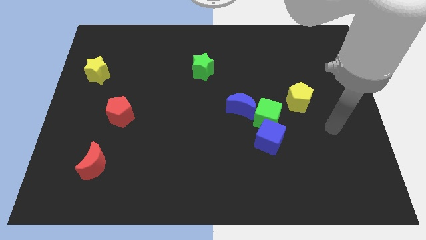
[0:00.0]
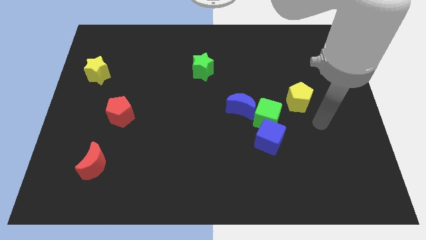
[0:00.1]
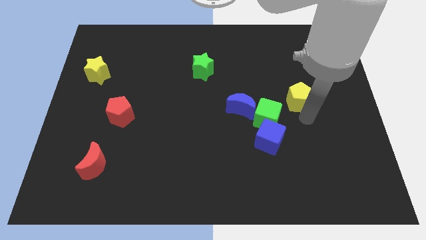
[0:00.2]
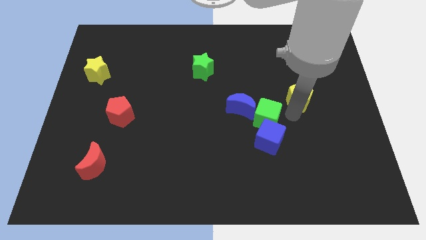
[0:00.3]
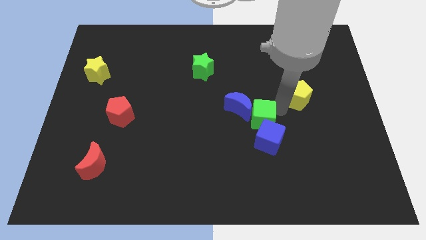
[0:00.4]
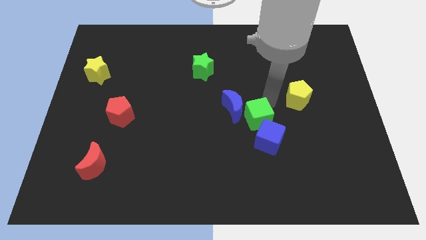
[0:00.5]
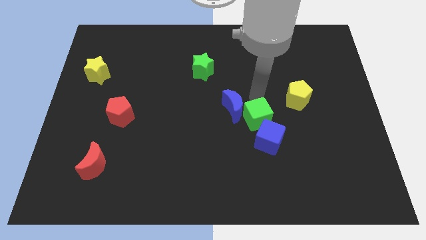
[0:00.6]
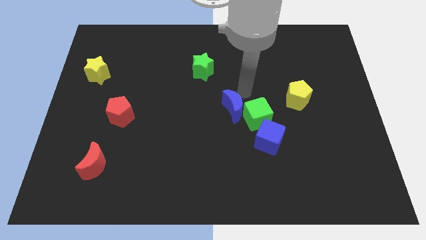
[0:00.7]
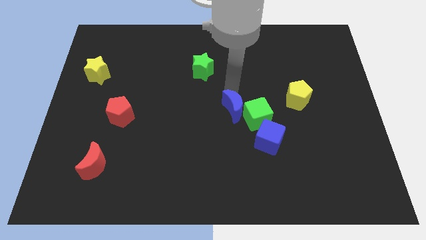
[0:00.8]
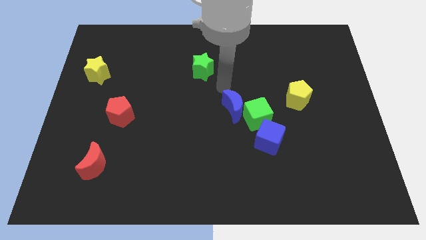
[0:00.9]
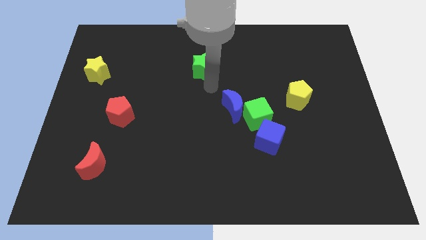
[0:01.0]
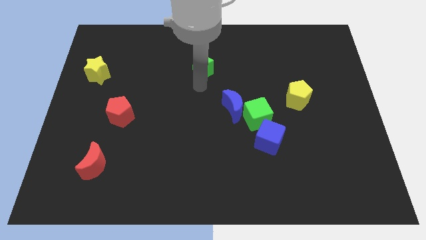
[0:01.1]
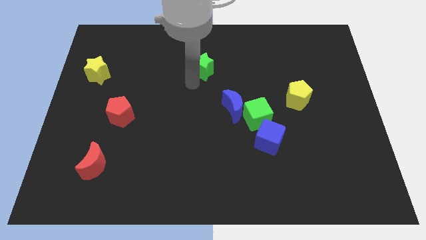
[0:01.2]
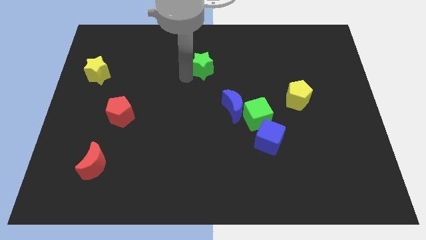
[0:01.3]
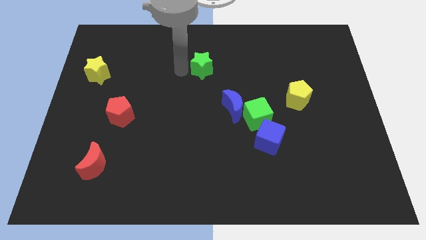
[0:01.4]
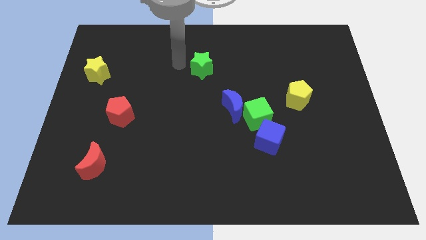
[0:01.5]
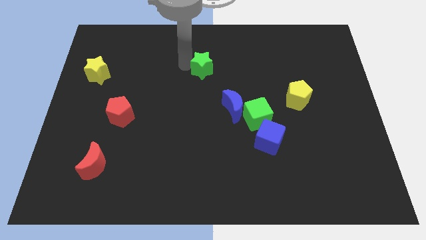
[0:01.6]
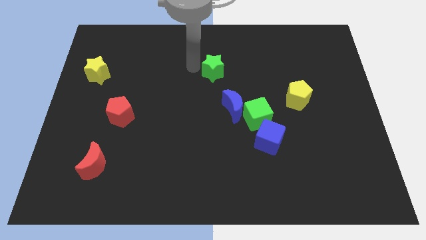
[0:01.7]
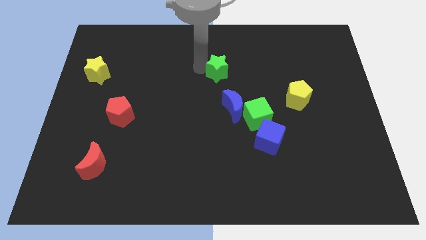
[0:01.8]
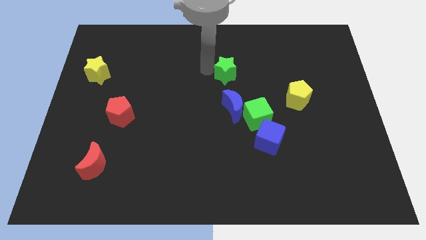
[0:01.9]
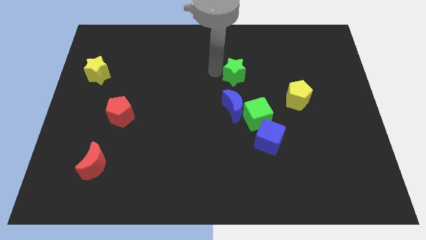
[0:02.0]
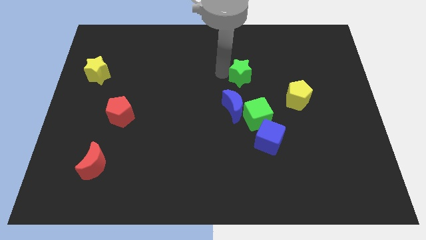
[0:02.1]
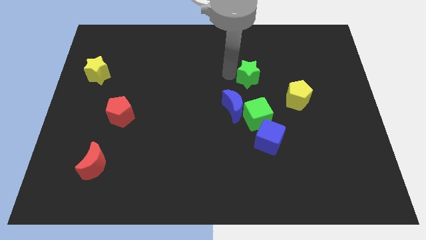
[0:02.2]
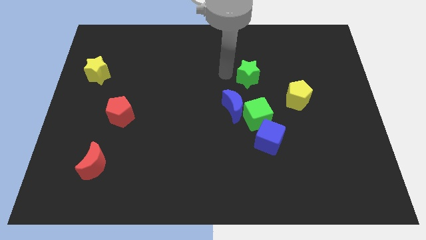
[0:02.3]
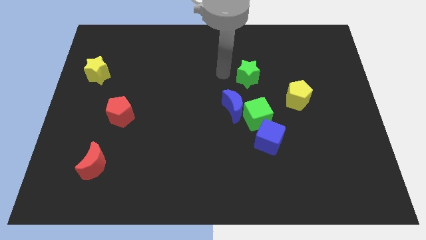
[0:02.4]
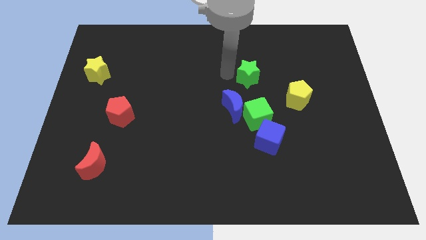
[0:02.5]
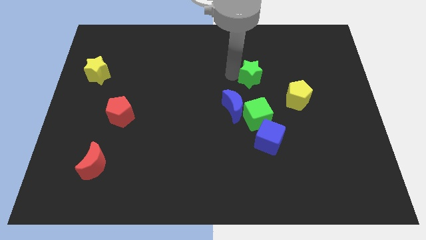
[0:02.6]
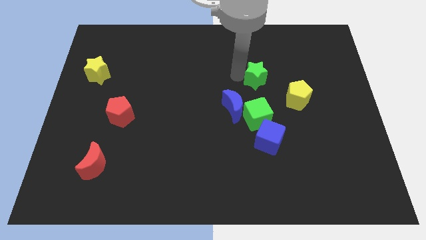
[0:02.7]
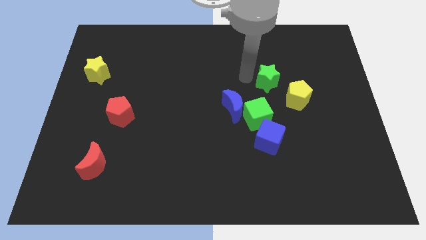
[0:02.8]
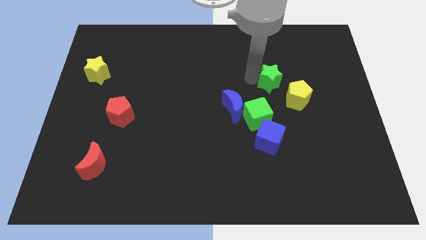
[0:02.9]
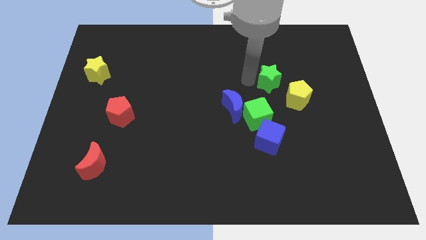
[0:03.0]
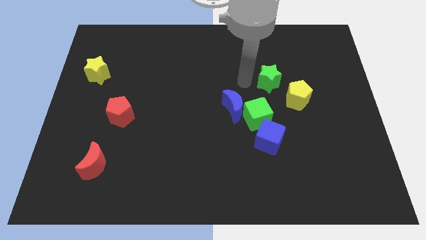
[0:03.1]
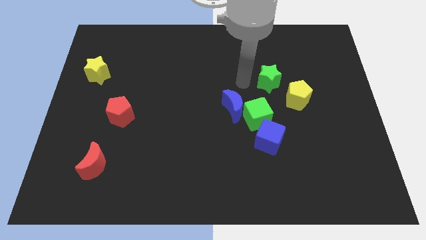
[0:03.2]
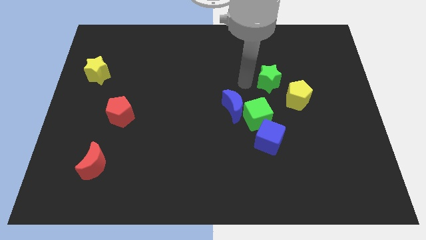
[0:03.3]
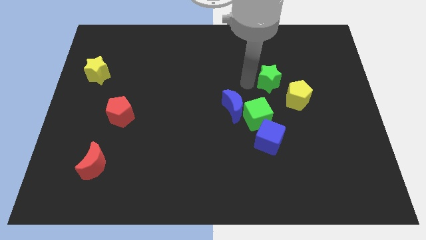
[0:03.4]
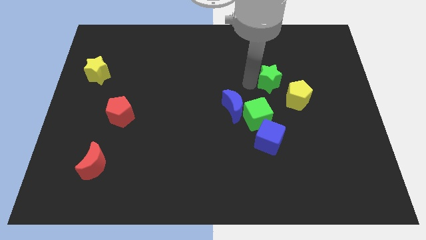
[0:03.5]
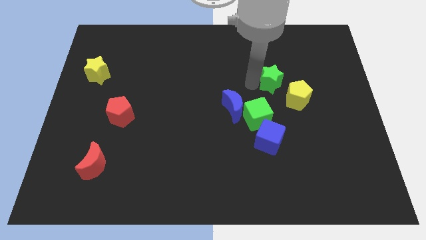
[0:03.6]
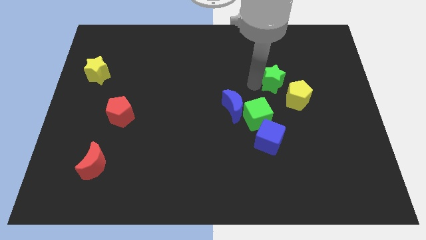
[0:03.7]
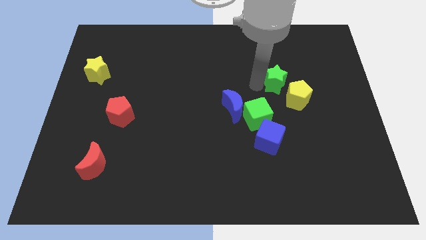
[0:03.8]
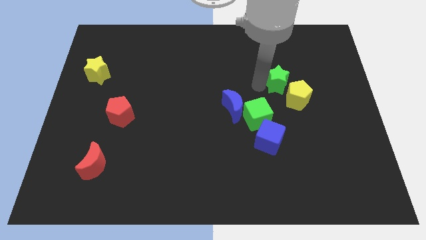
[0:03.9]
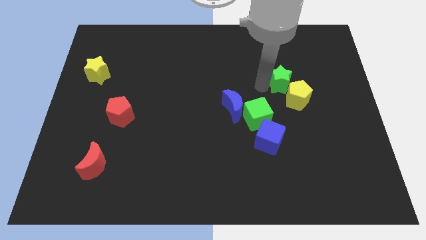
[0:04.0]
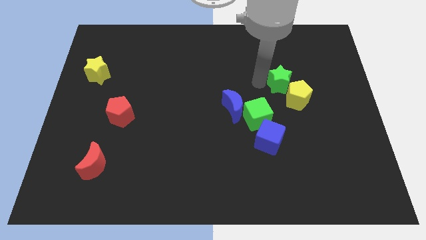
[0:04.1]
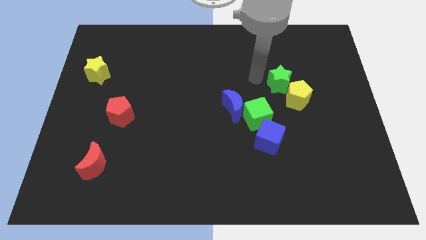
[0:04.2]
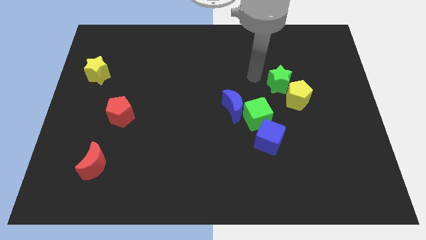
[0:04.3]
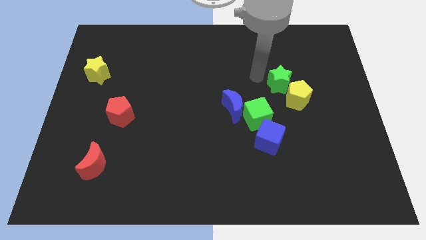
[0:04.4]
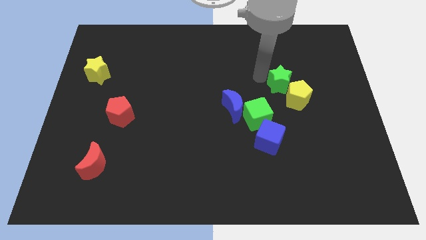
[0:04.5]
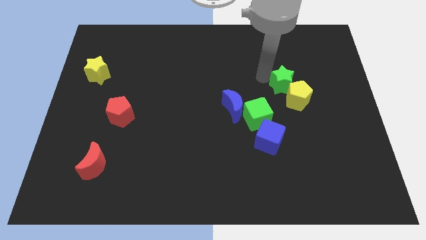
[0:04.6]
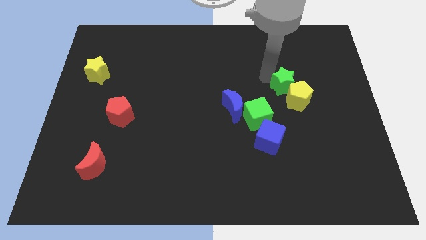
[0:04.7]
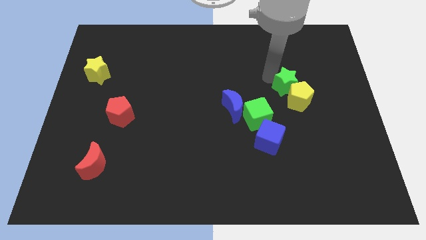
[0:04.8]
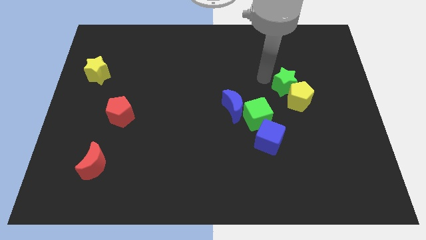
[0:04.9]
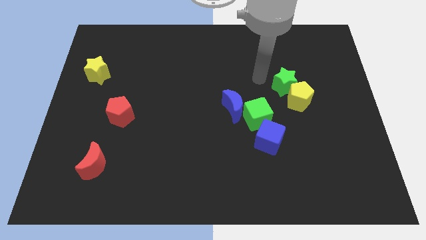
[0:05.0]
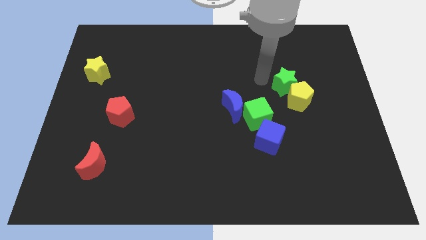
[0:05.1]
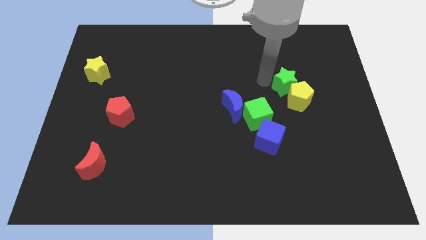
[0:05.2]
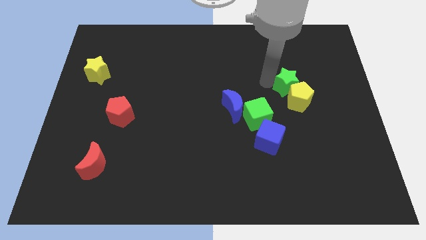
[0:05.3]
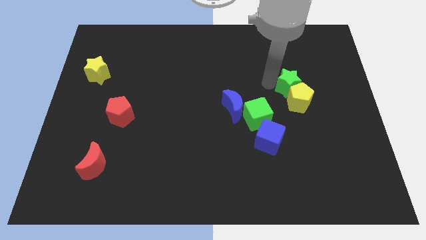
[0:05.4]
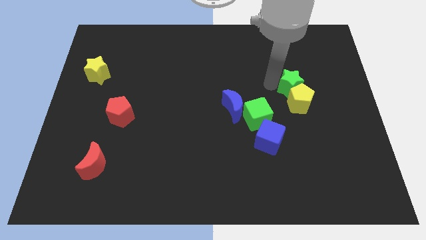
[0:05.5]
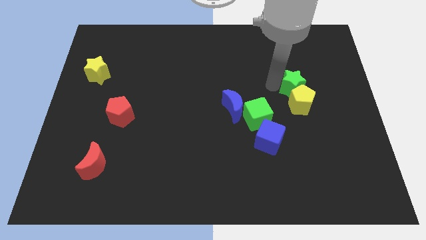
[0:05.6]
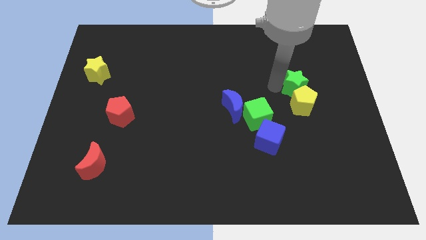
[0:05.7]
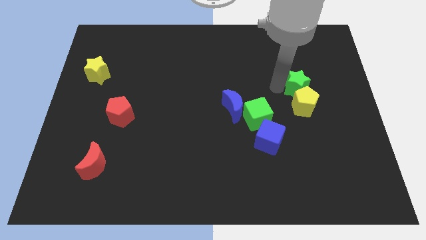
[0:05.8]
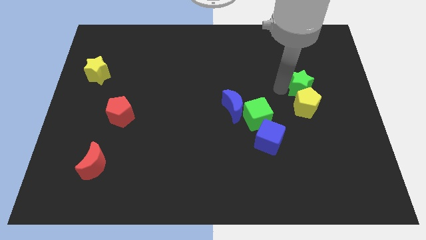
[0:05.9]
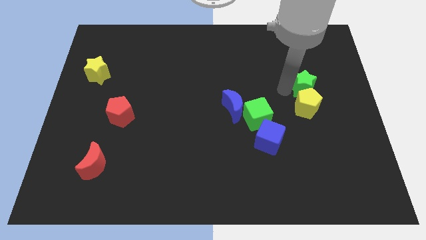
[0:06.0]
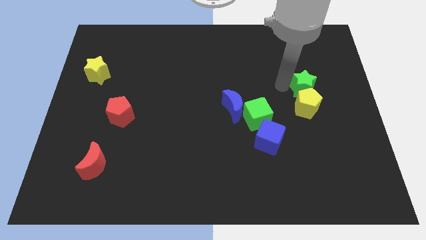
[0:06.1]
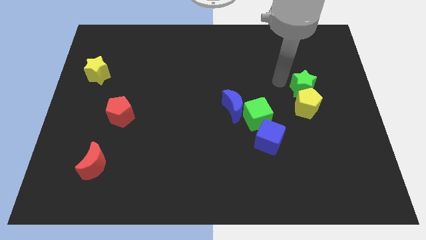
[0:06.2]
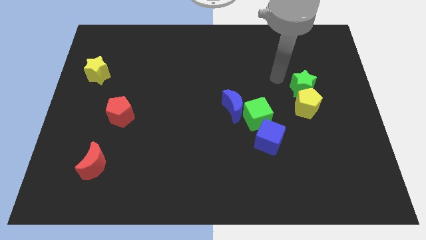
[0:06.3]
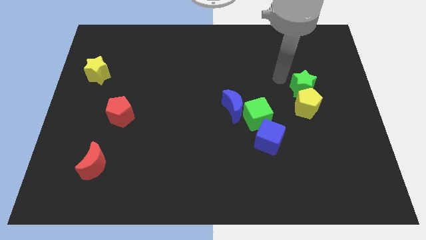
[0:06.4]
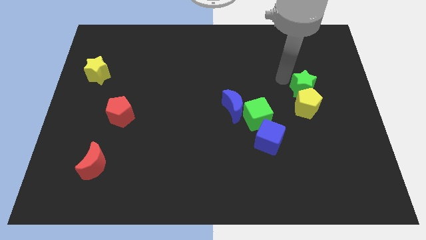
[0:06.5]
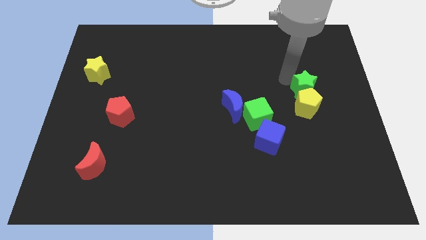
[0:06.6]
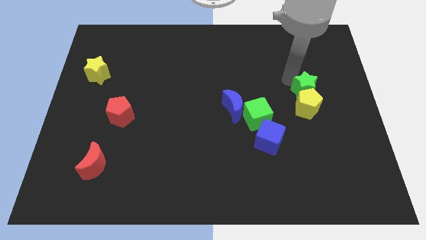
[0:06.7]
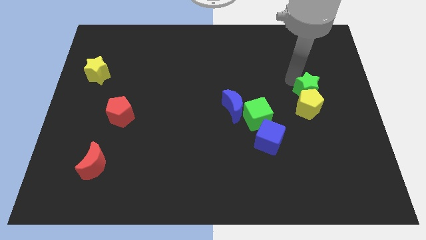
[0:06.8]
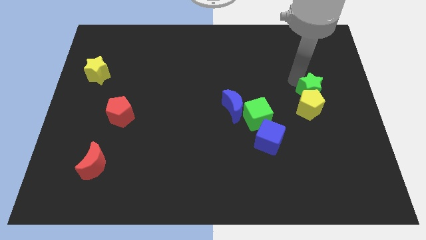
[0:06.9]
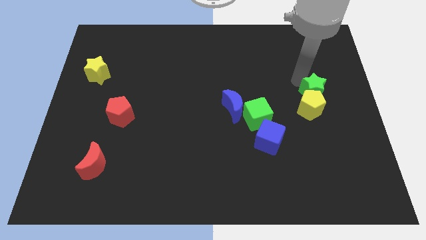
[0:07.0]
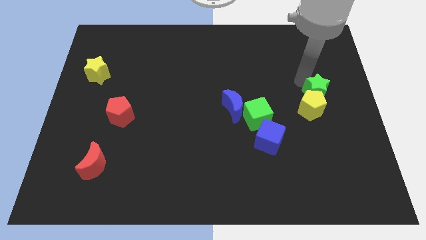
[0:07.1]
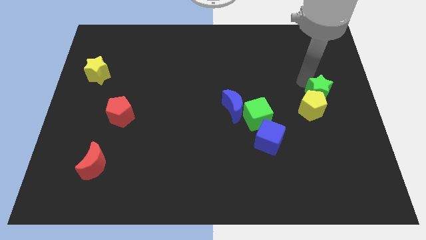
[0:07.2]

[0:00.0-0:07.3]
move the green star to the center right
